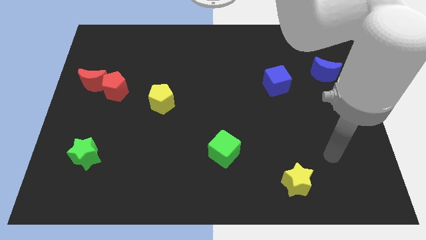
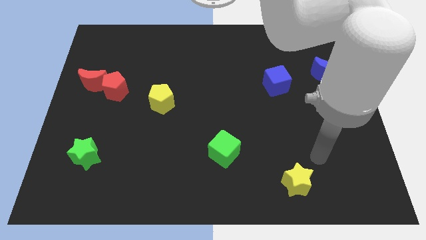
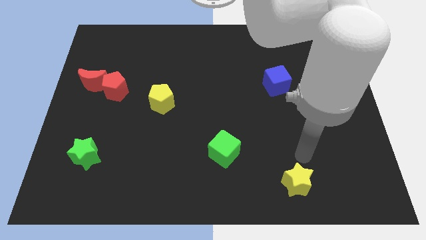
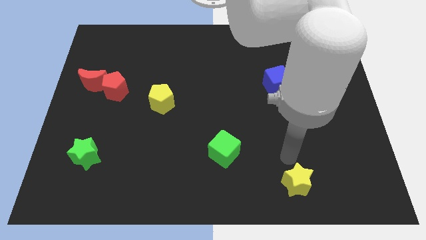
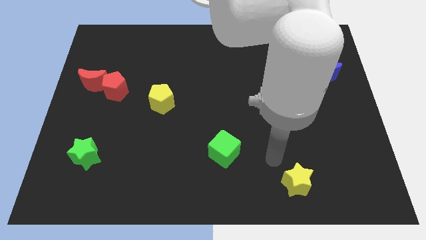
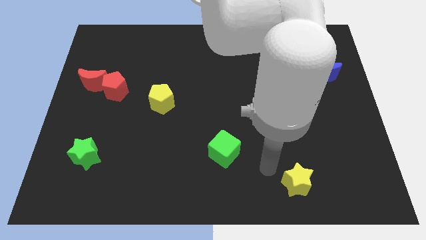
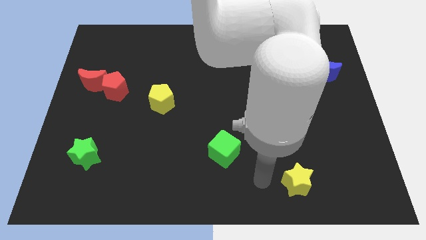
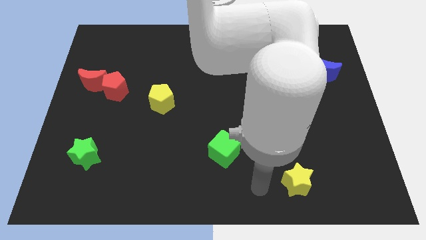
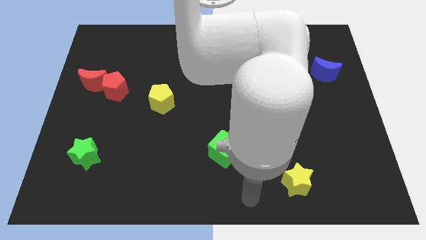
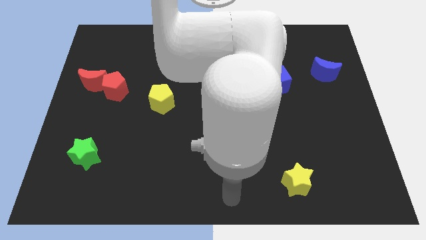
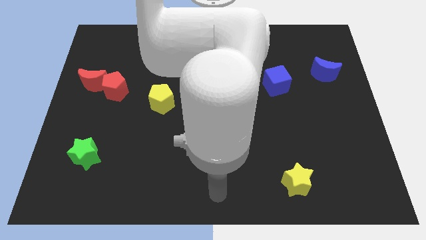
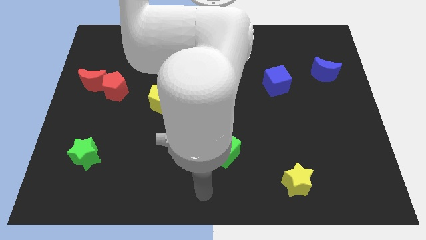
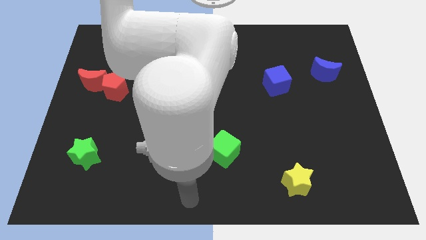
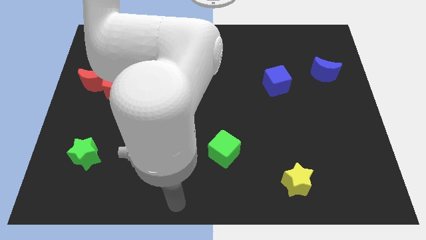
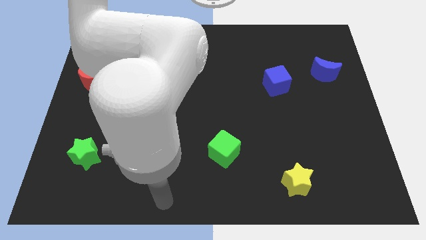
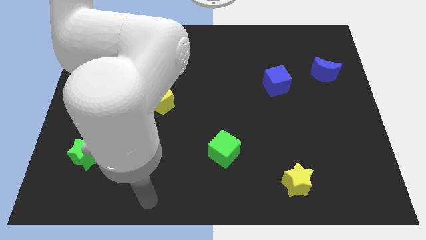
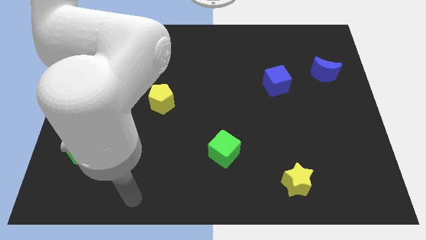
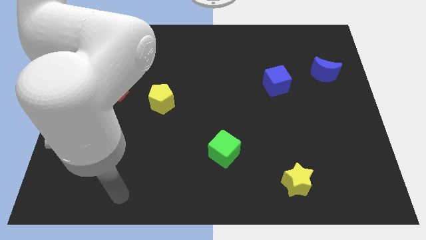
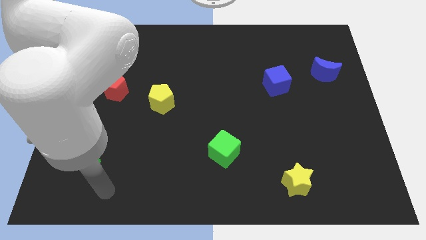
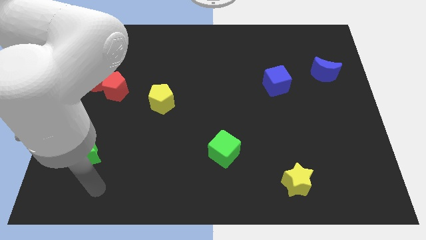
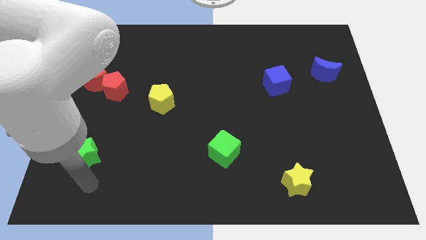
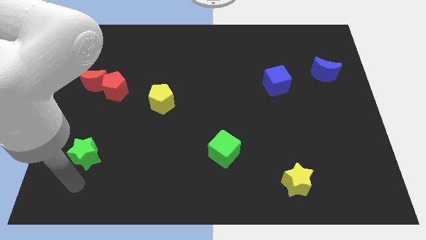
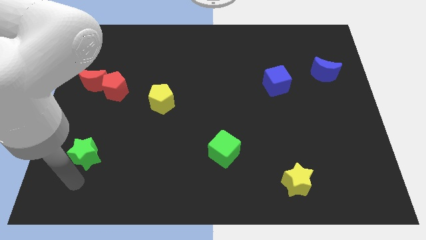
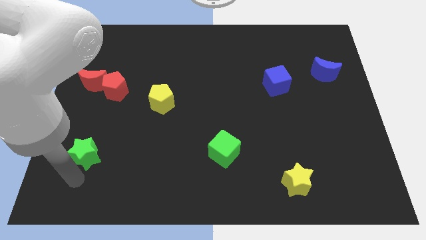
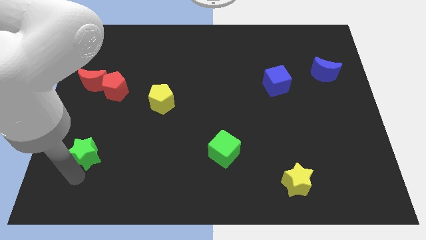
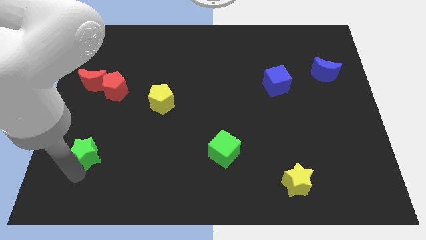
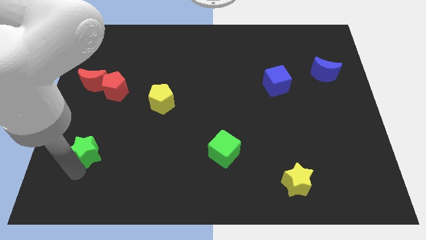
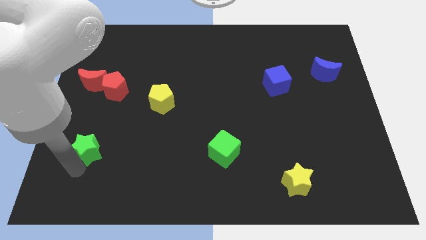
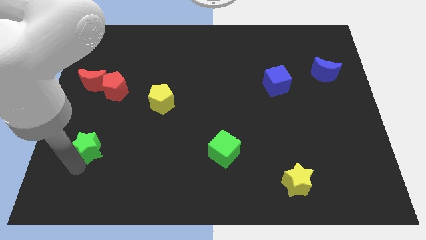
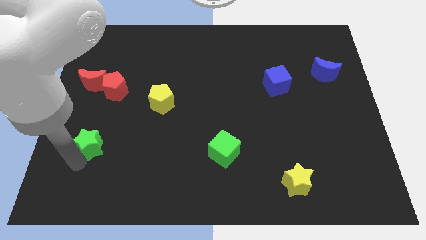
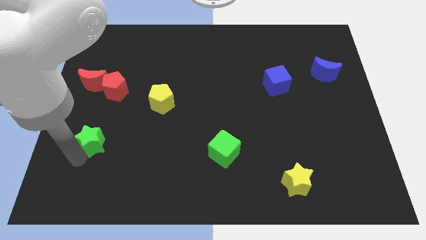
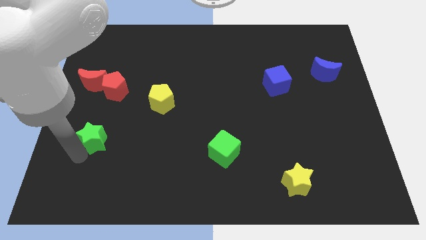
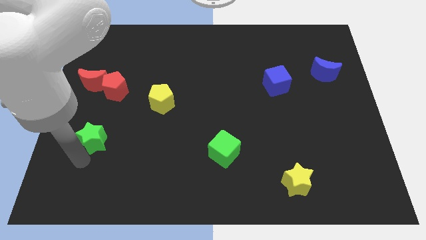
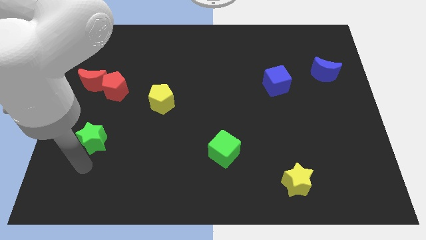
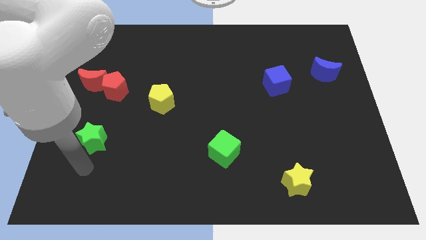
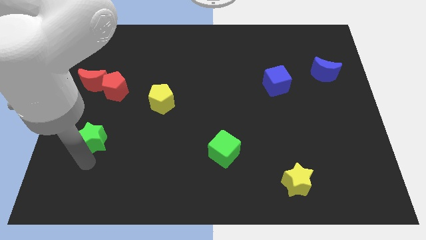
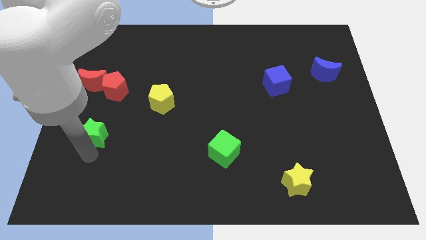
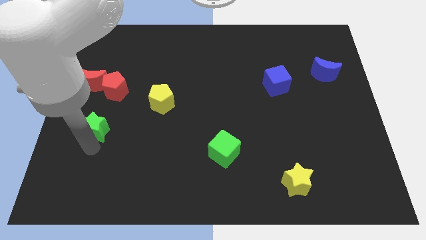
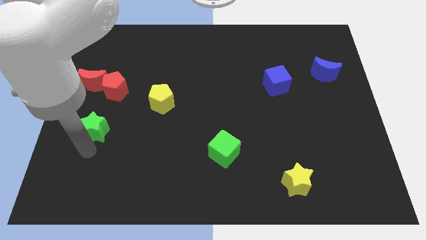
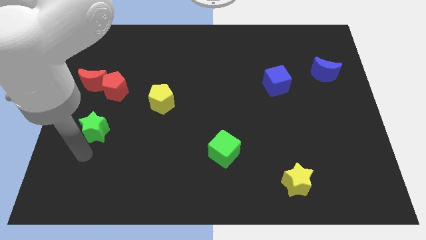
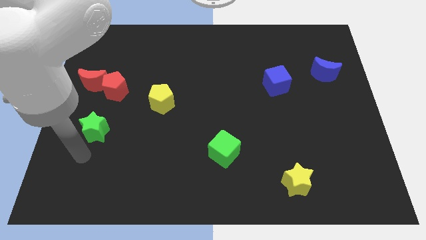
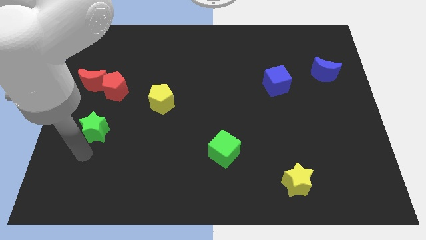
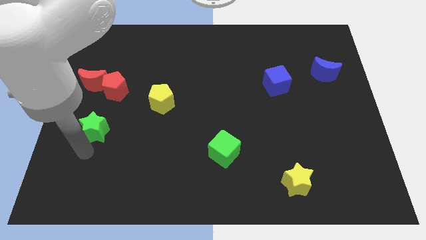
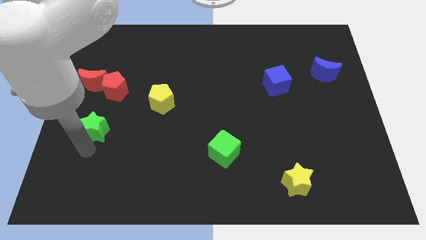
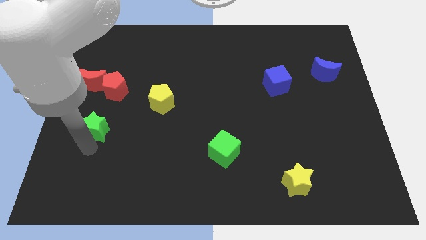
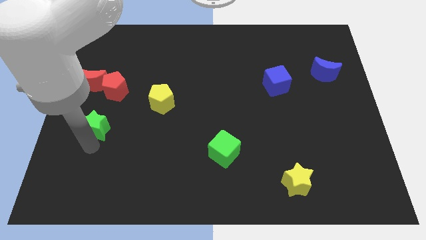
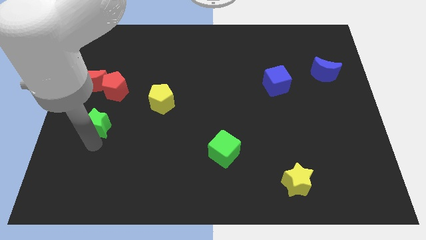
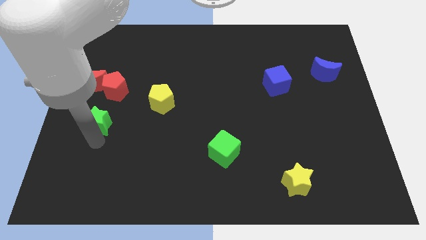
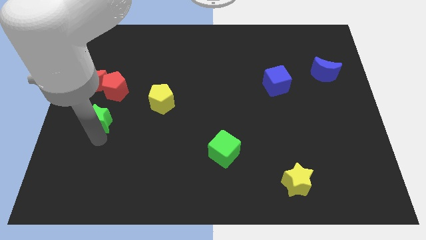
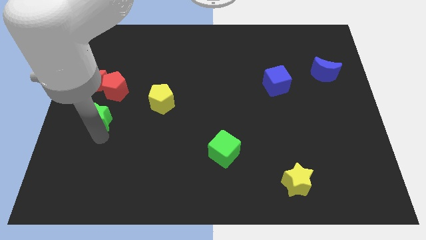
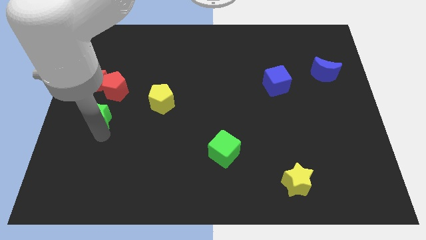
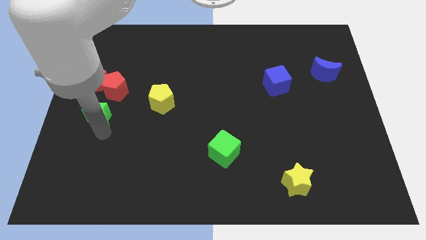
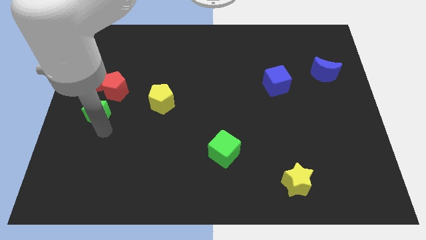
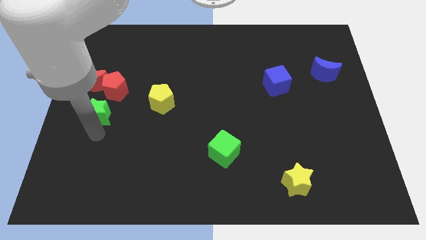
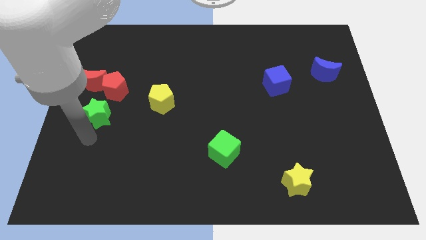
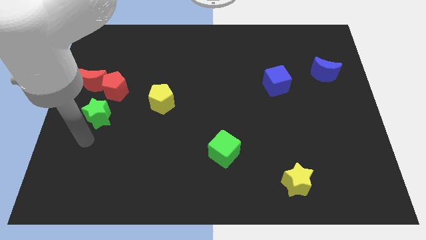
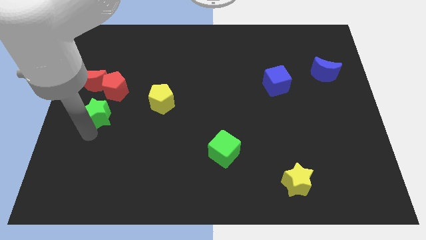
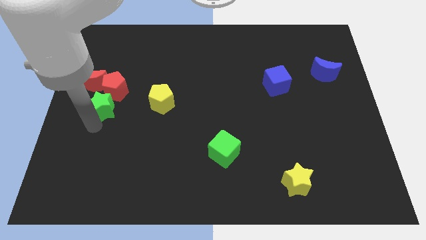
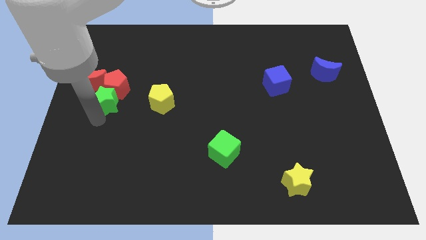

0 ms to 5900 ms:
push the green star towards the red pentagon

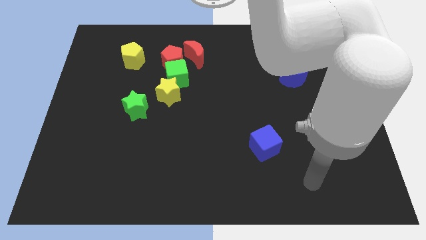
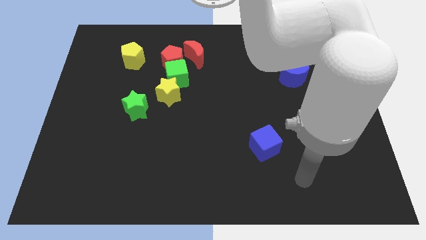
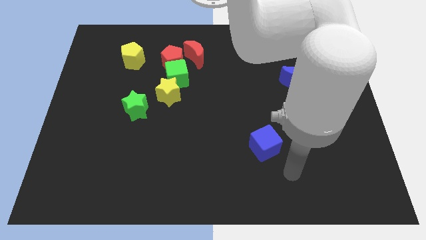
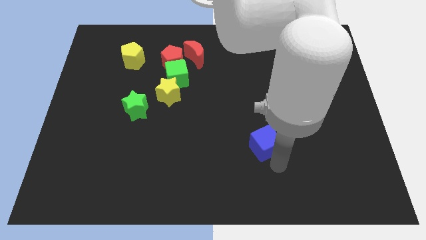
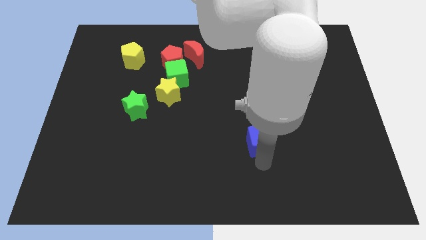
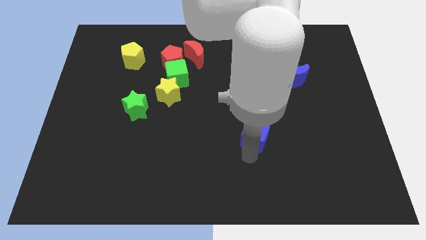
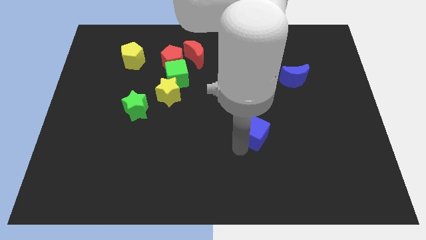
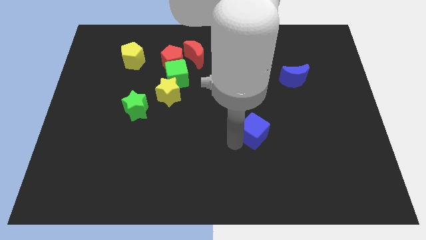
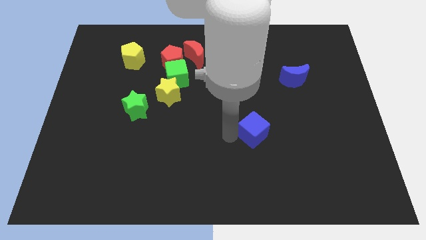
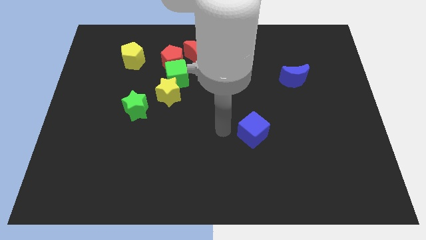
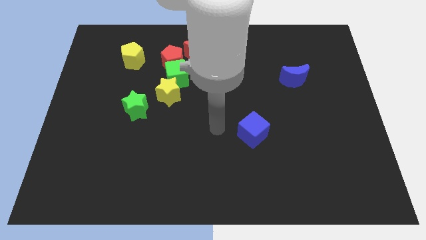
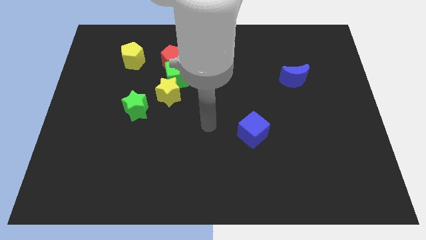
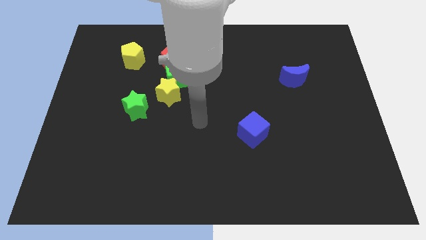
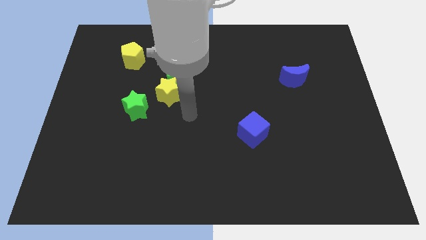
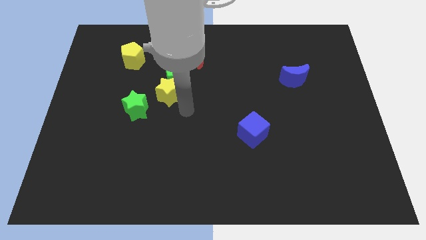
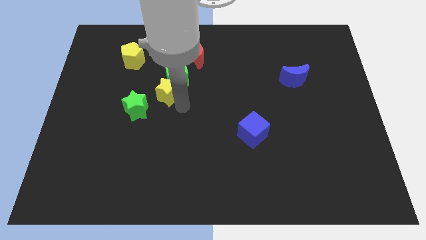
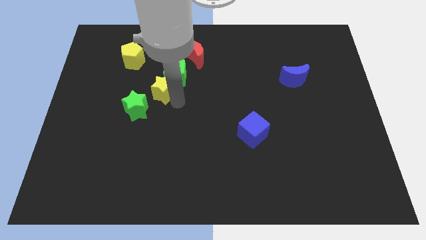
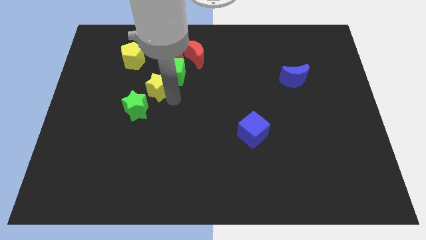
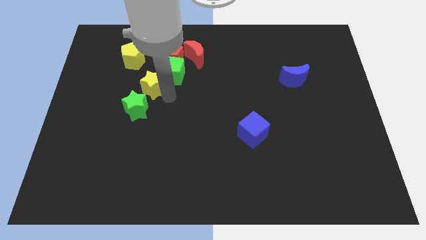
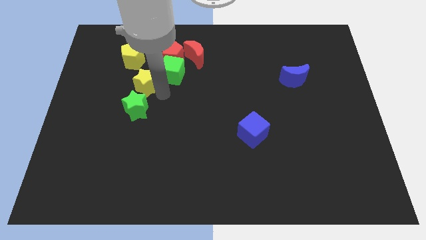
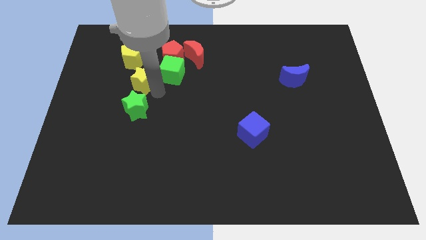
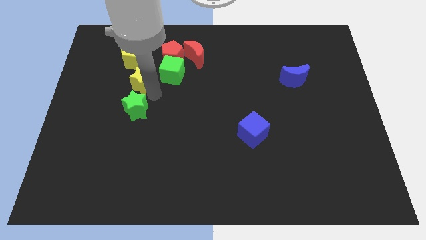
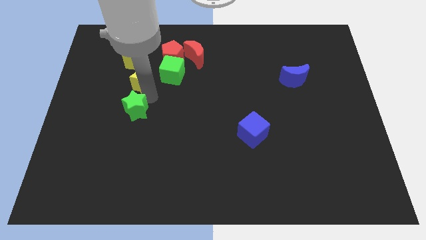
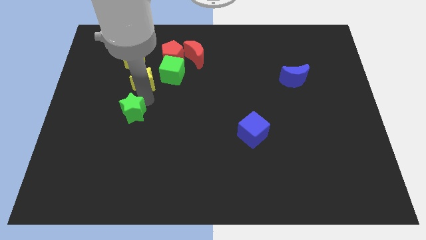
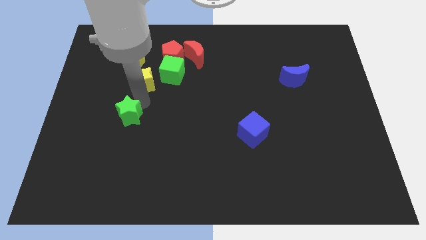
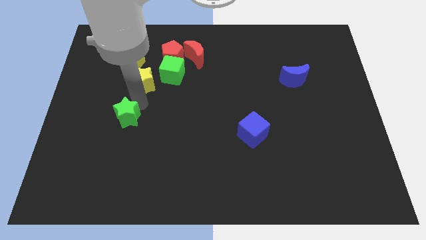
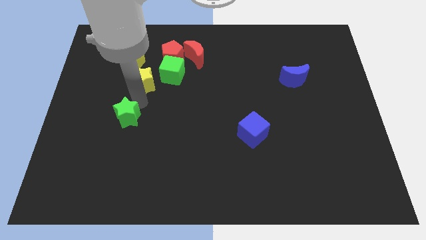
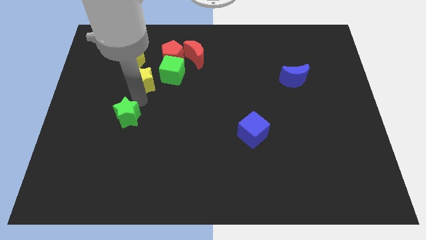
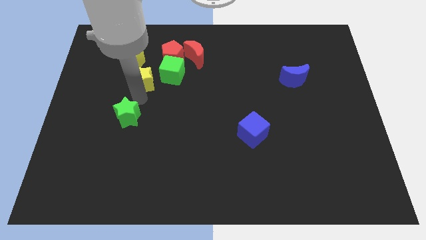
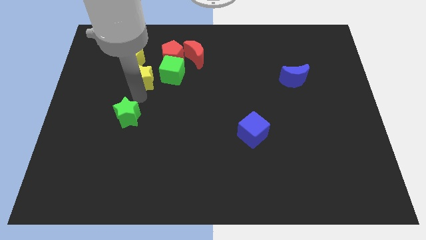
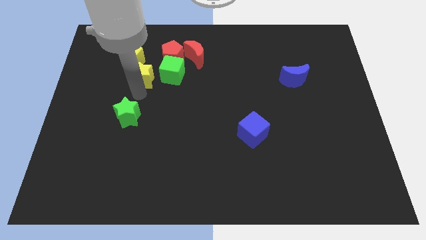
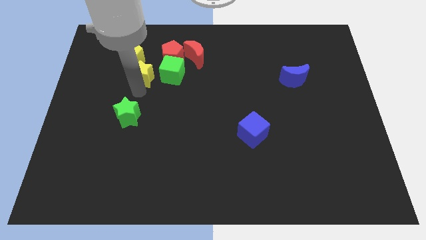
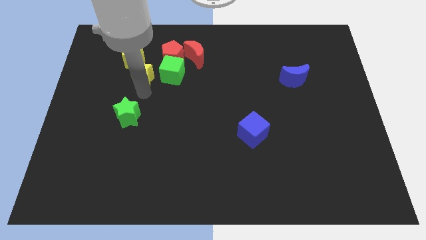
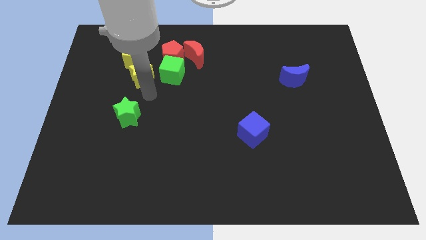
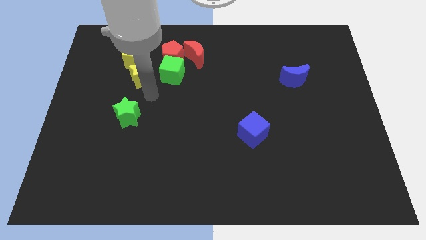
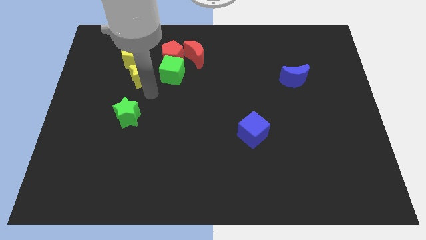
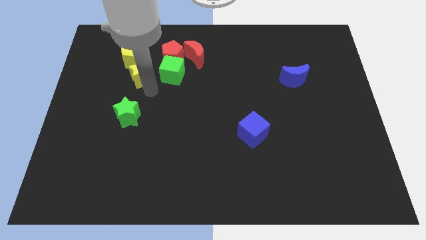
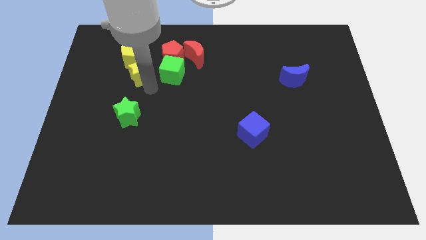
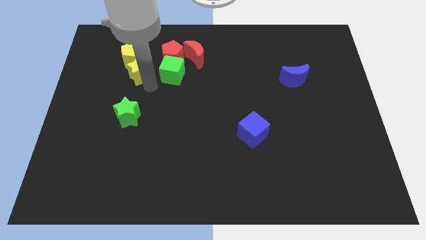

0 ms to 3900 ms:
slide the yellow star close to the yellow pentagon
